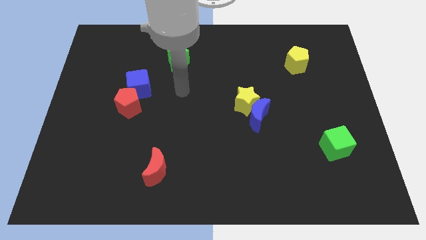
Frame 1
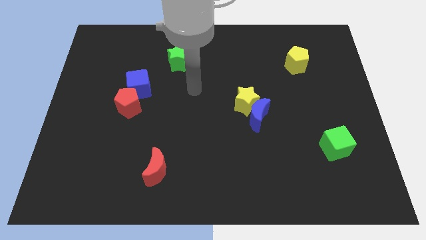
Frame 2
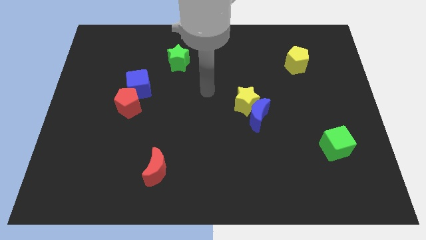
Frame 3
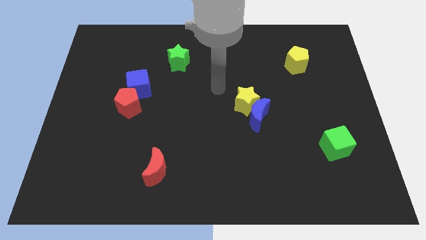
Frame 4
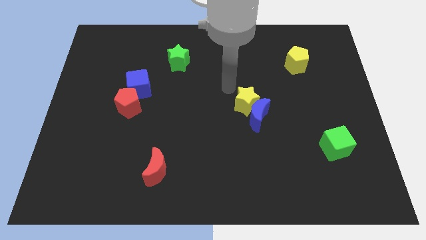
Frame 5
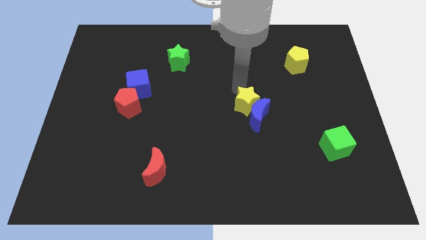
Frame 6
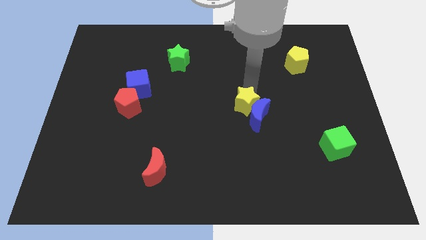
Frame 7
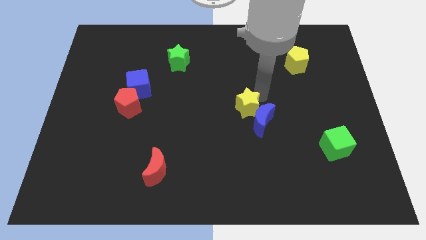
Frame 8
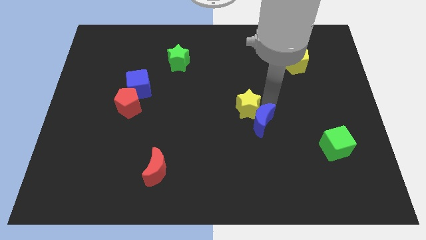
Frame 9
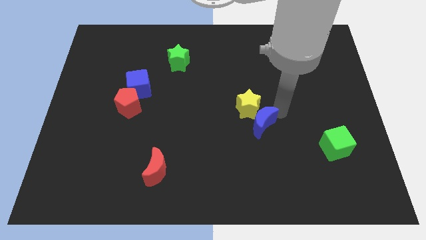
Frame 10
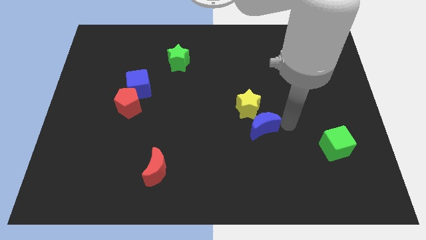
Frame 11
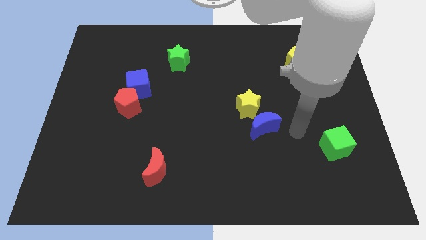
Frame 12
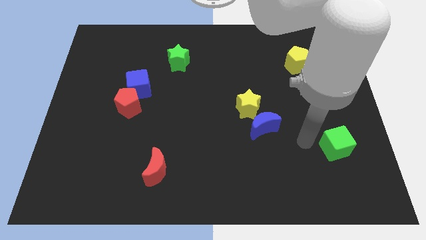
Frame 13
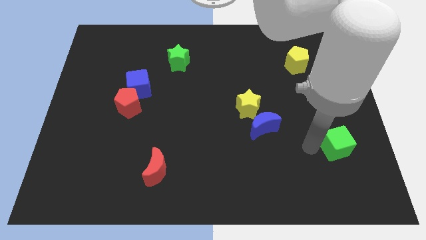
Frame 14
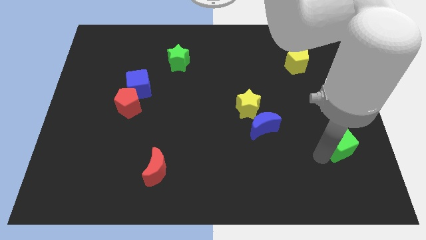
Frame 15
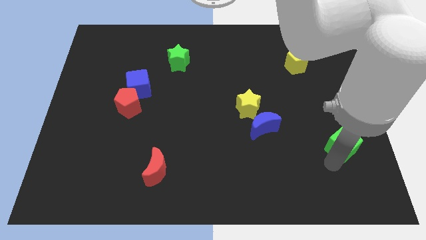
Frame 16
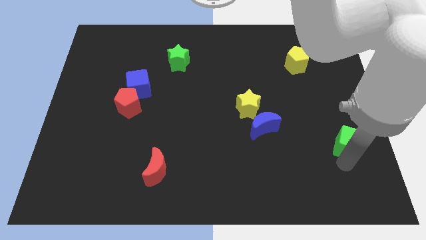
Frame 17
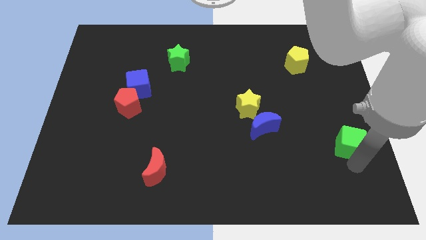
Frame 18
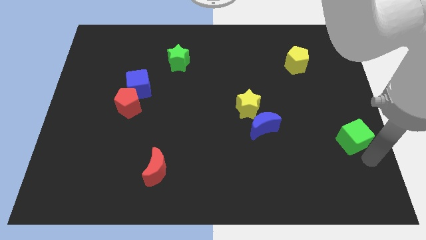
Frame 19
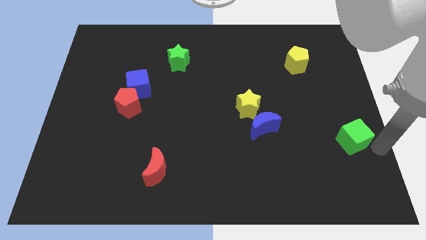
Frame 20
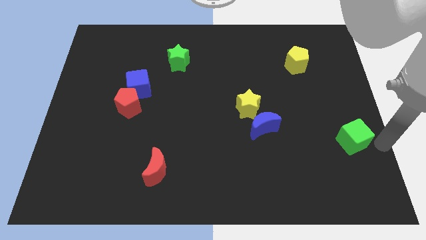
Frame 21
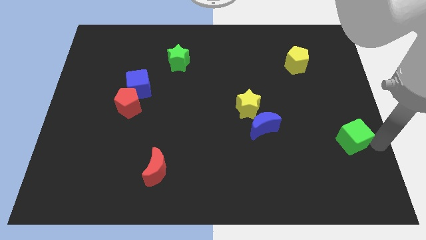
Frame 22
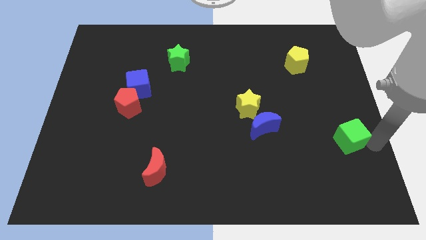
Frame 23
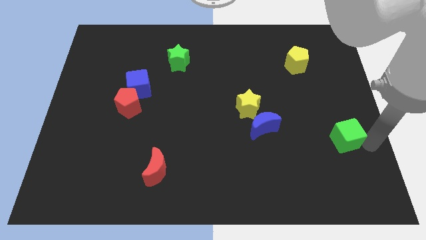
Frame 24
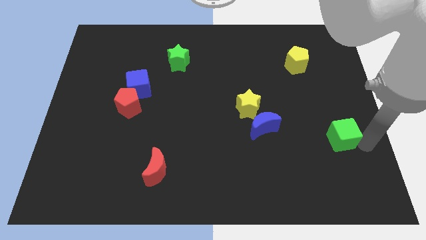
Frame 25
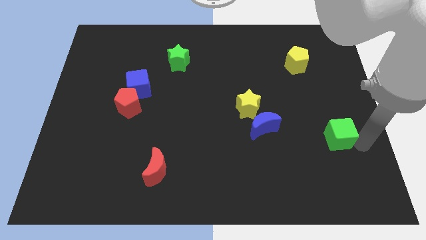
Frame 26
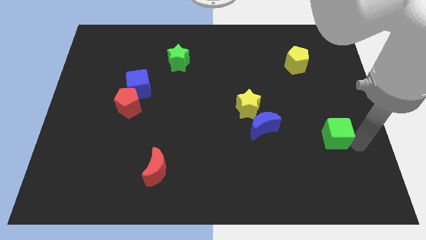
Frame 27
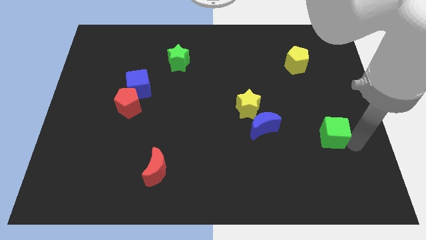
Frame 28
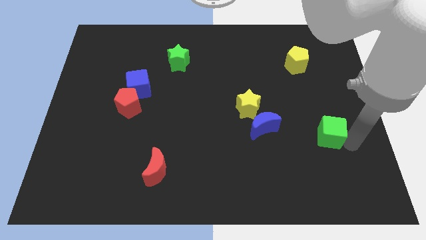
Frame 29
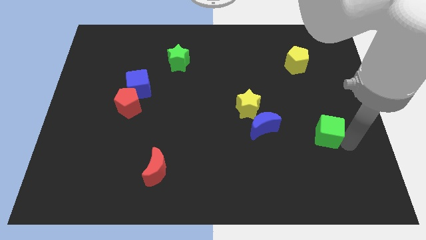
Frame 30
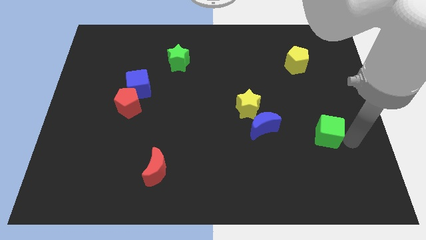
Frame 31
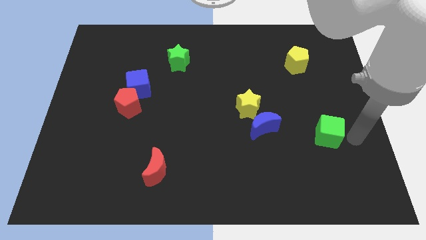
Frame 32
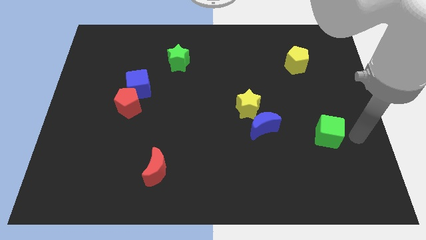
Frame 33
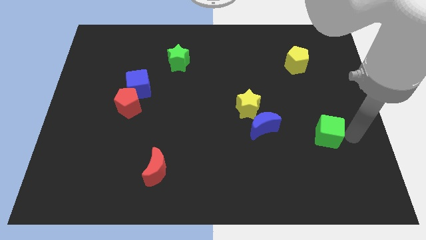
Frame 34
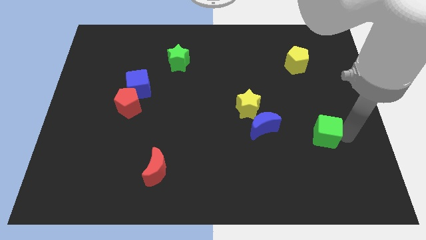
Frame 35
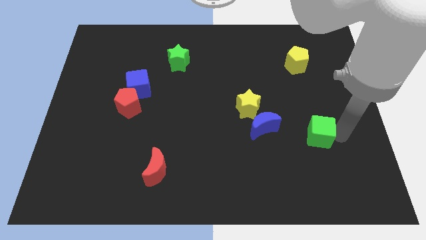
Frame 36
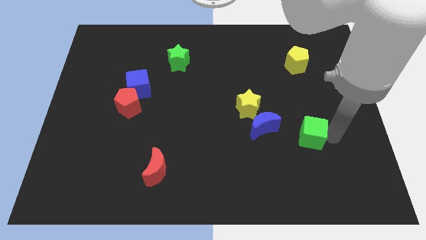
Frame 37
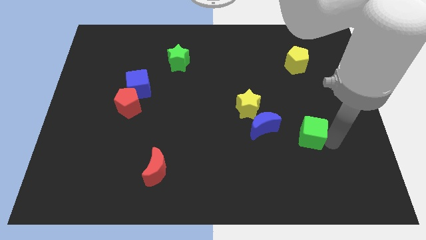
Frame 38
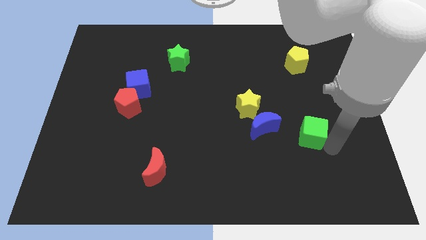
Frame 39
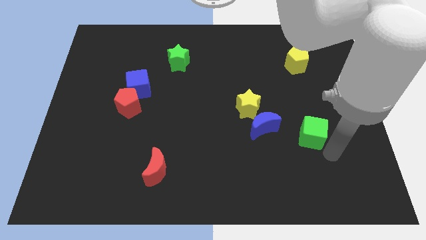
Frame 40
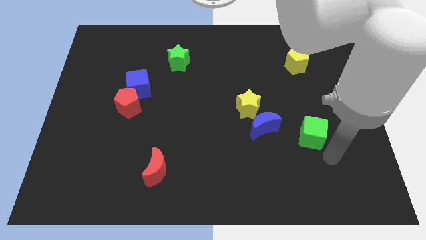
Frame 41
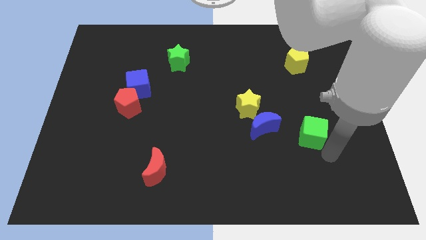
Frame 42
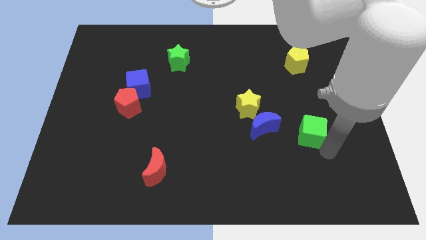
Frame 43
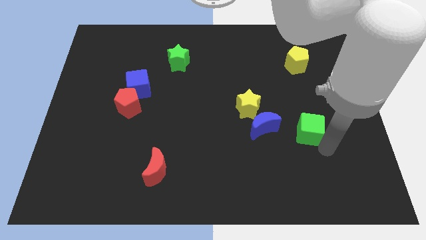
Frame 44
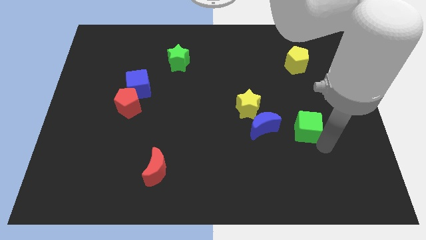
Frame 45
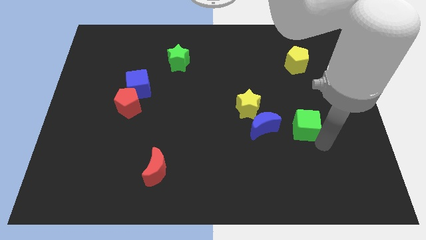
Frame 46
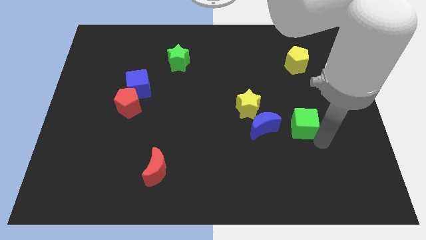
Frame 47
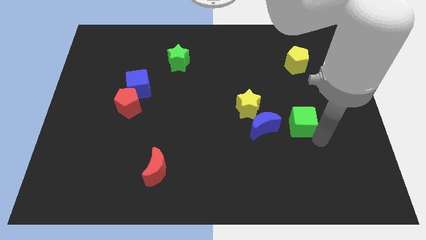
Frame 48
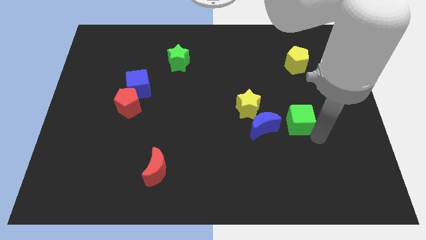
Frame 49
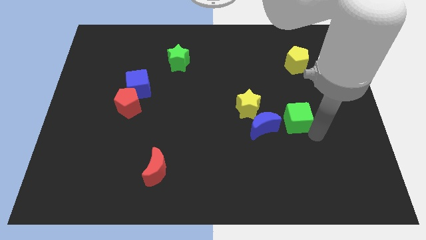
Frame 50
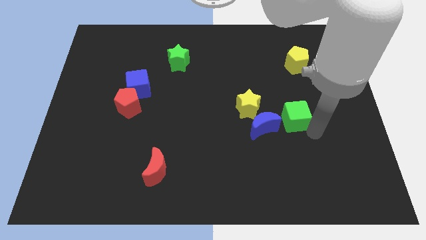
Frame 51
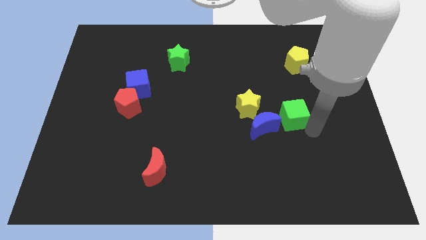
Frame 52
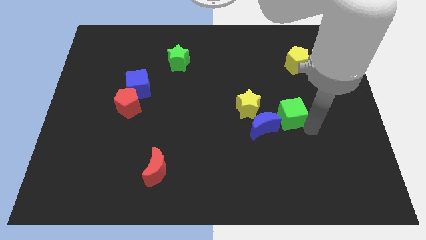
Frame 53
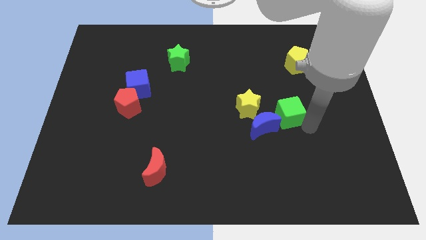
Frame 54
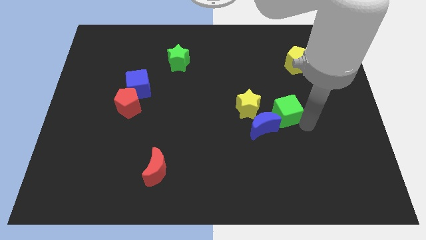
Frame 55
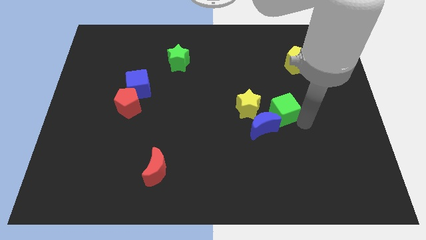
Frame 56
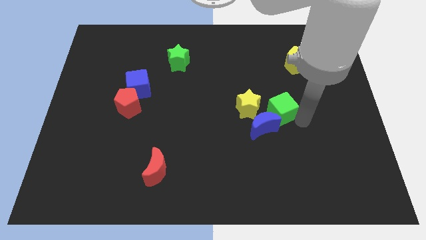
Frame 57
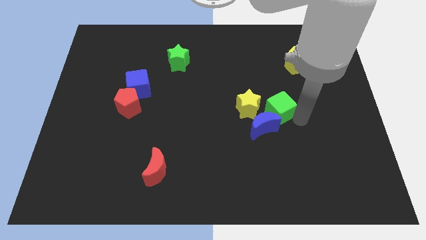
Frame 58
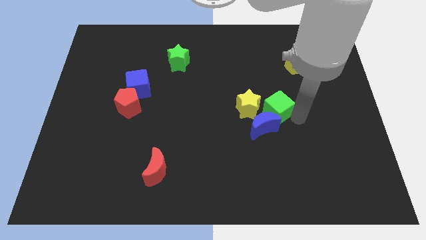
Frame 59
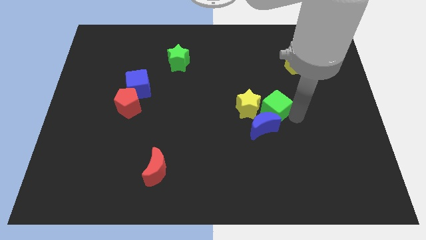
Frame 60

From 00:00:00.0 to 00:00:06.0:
put the green cube close to the yellow star

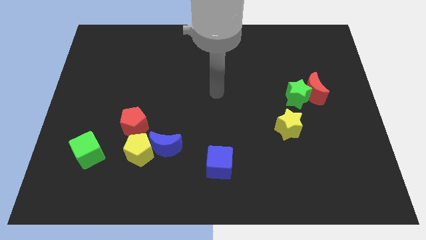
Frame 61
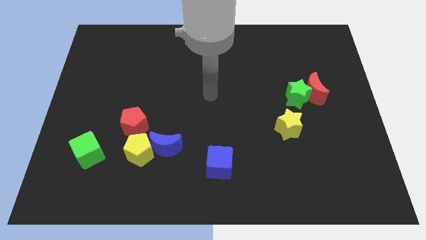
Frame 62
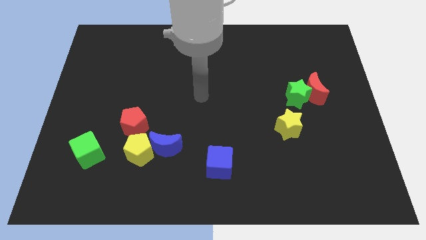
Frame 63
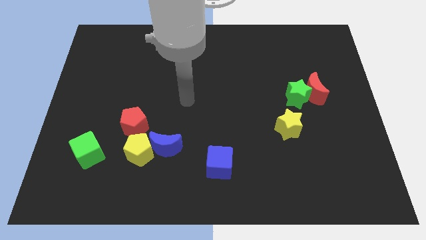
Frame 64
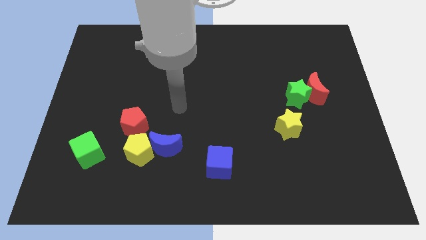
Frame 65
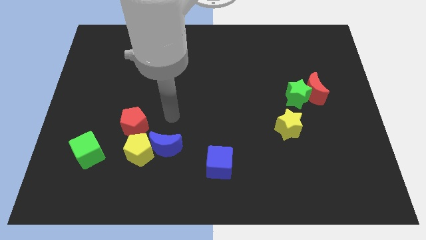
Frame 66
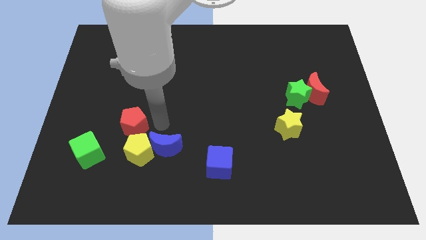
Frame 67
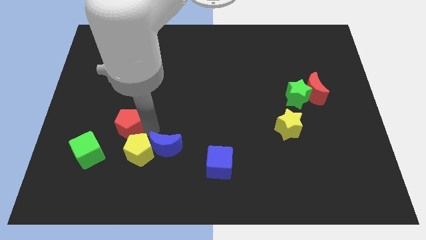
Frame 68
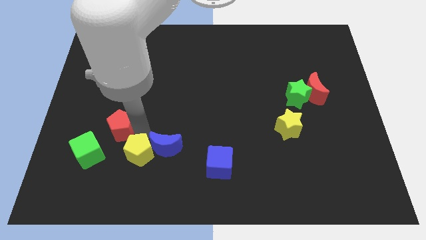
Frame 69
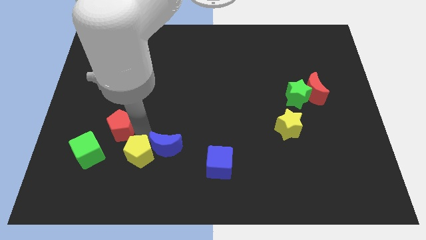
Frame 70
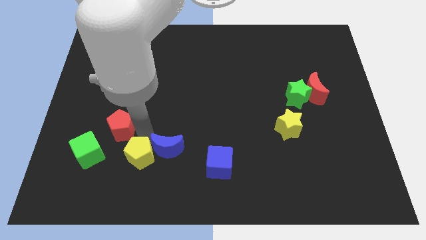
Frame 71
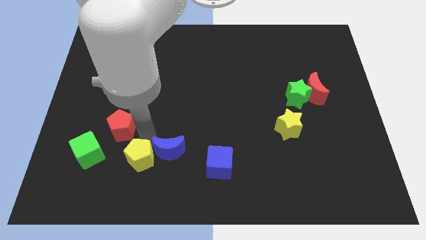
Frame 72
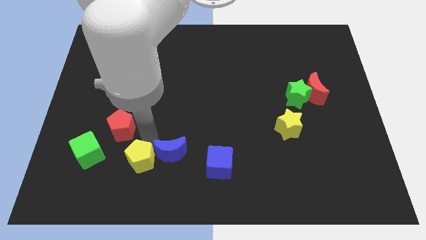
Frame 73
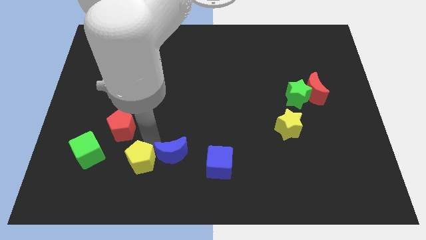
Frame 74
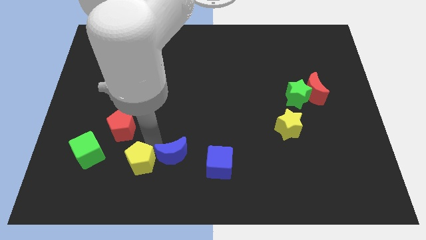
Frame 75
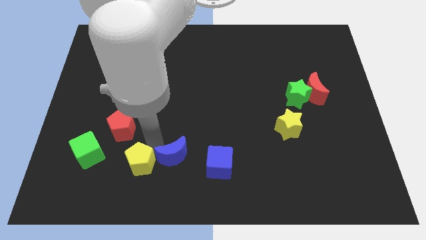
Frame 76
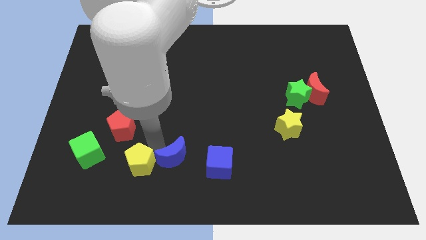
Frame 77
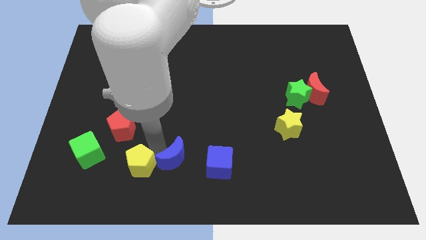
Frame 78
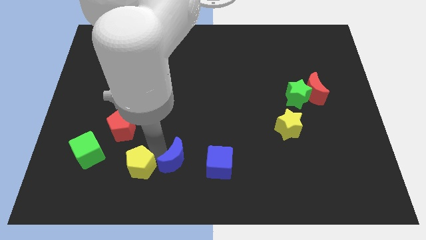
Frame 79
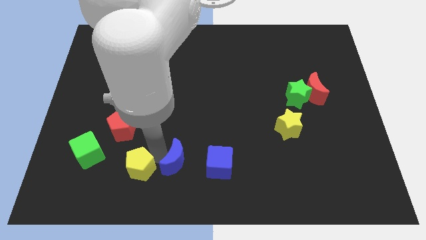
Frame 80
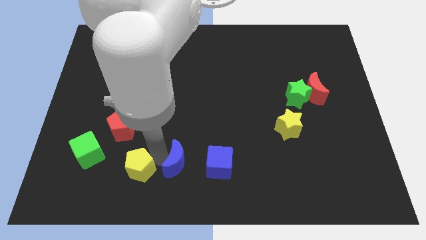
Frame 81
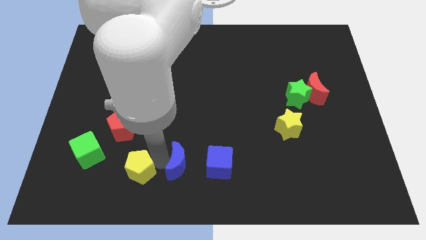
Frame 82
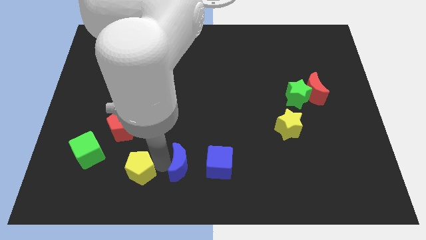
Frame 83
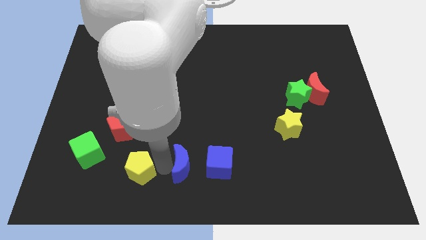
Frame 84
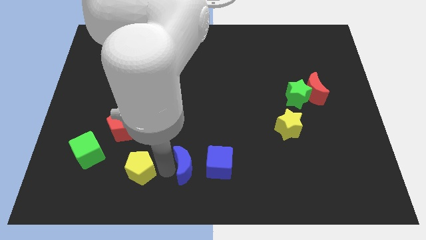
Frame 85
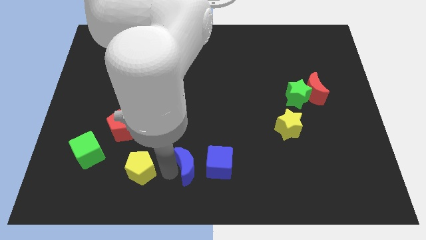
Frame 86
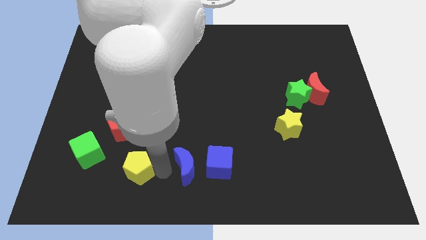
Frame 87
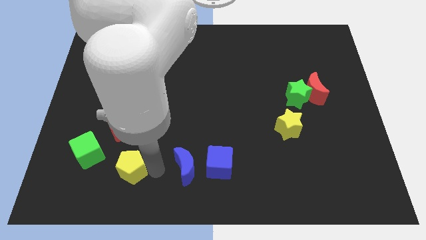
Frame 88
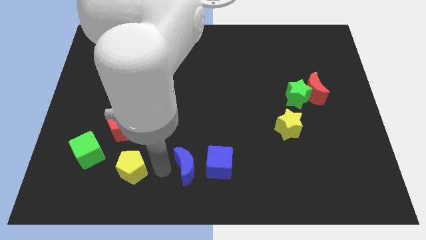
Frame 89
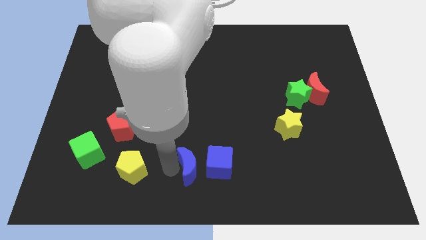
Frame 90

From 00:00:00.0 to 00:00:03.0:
put the blue moon towards the blue cube
